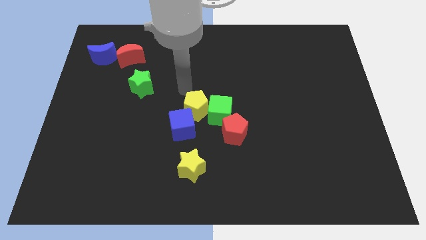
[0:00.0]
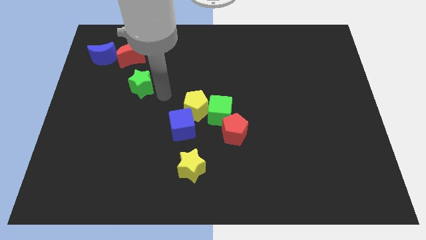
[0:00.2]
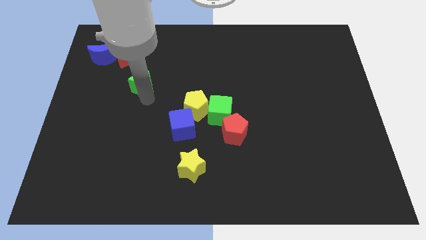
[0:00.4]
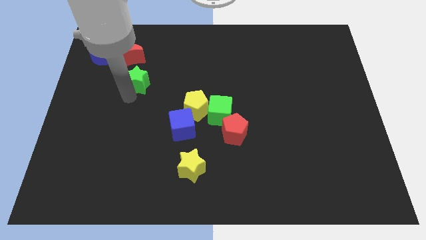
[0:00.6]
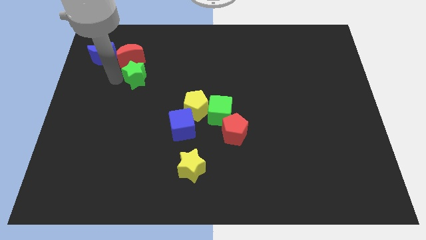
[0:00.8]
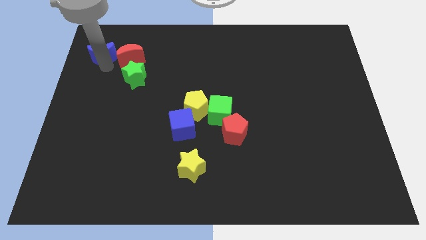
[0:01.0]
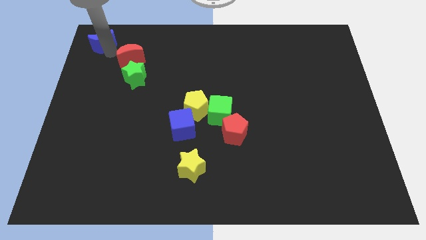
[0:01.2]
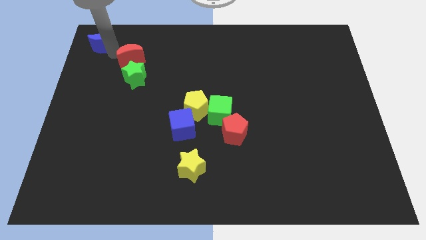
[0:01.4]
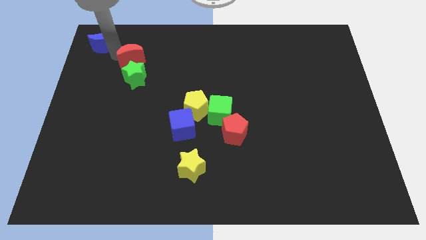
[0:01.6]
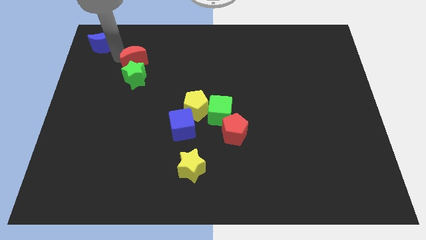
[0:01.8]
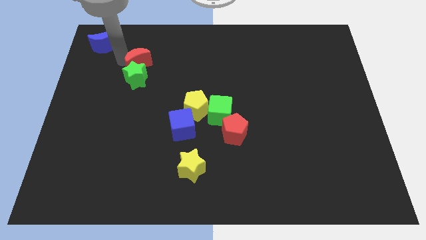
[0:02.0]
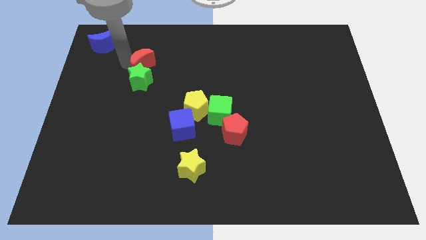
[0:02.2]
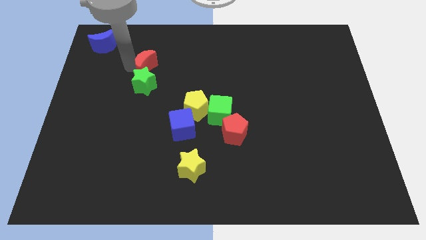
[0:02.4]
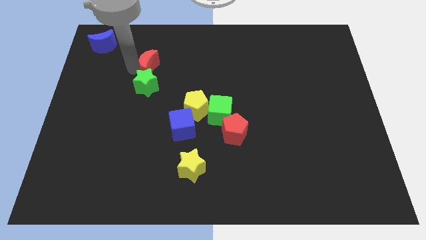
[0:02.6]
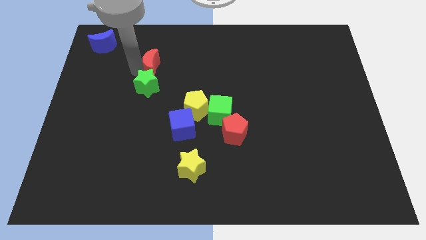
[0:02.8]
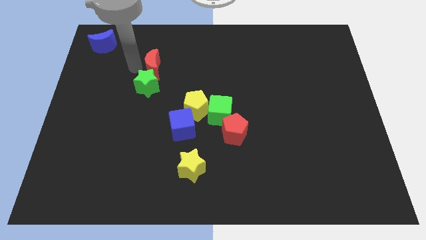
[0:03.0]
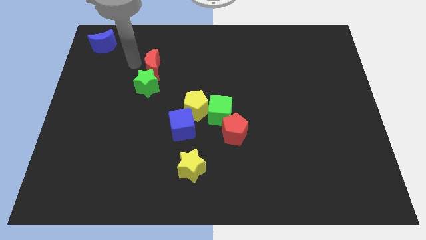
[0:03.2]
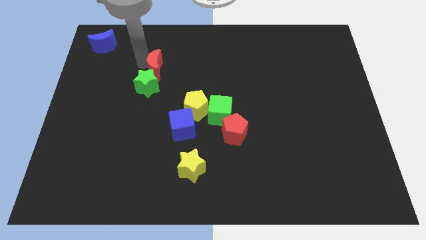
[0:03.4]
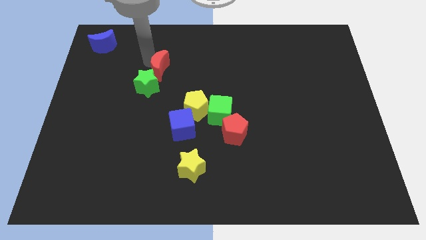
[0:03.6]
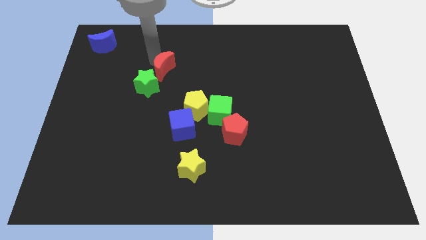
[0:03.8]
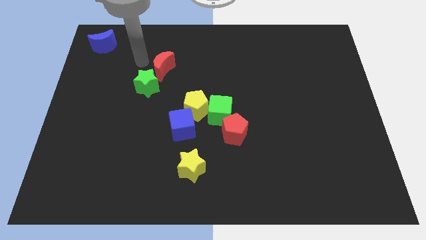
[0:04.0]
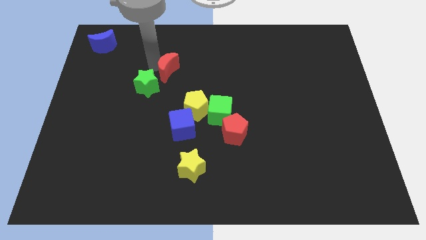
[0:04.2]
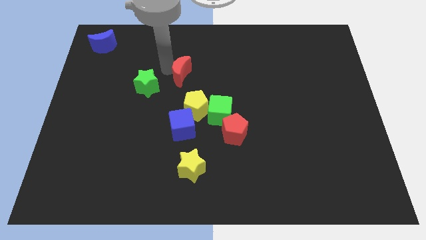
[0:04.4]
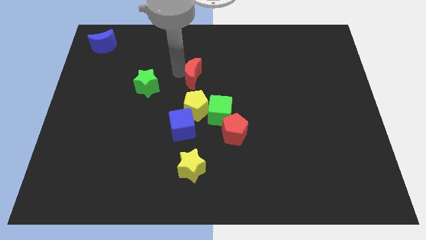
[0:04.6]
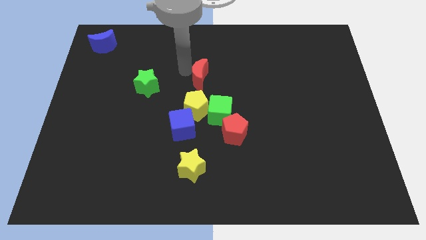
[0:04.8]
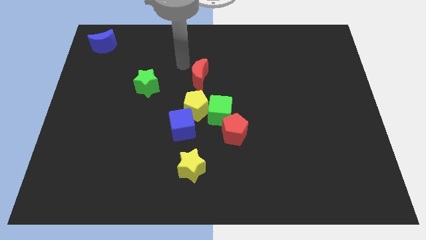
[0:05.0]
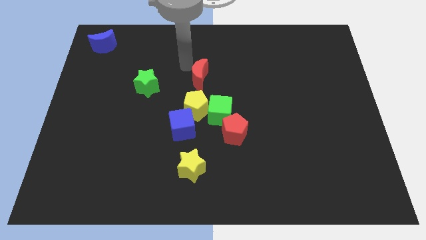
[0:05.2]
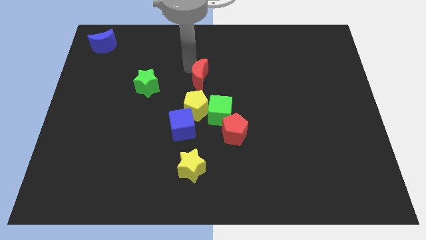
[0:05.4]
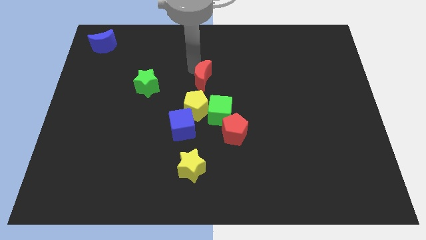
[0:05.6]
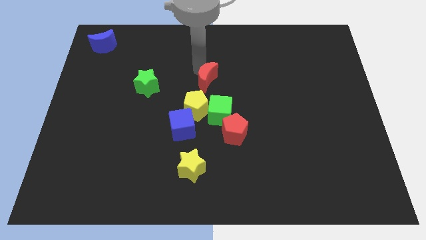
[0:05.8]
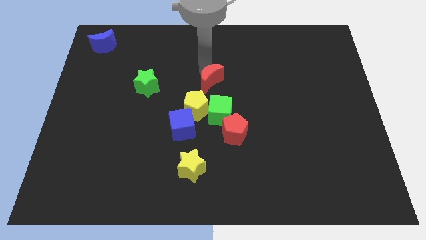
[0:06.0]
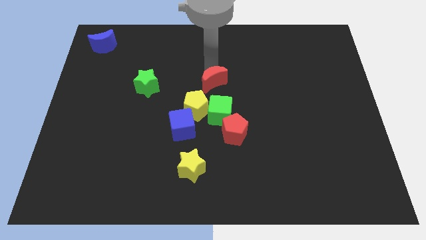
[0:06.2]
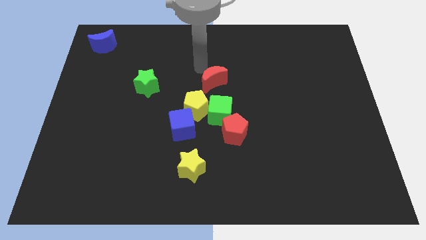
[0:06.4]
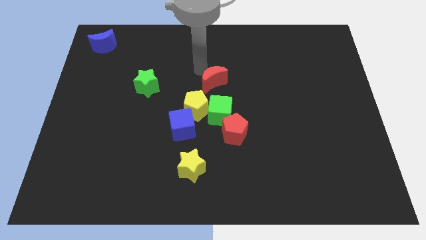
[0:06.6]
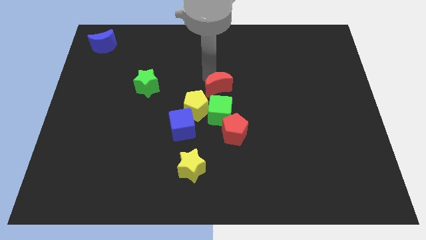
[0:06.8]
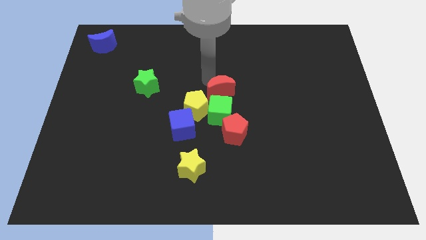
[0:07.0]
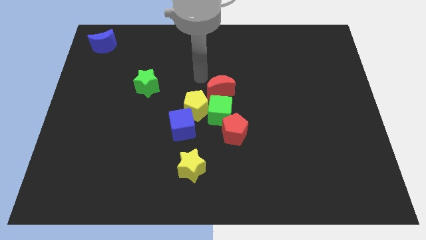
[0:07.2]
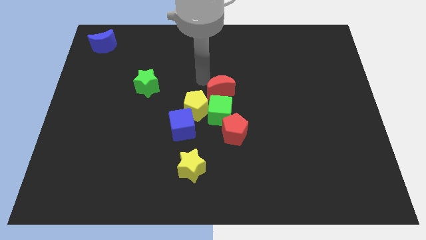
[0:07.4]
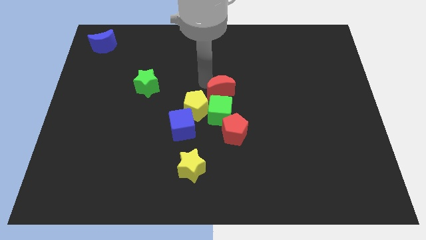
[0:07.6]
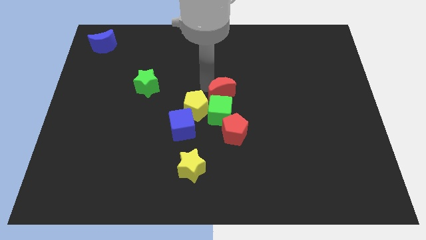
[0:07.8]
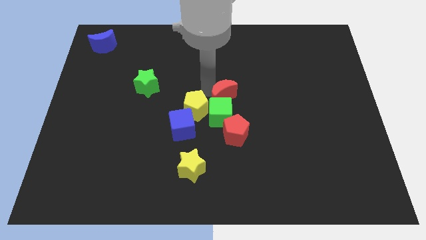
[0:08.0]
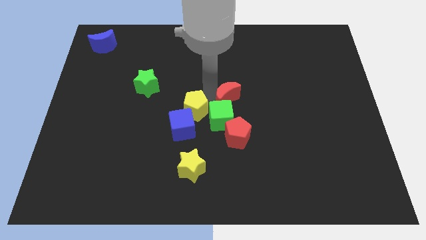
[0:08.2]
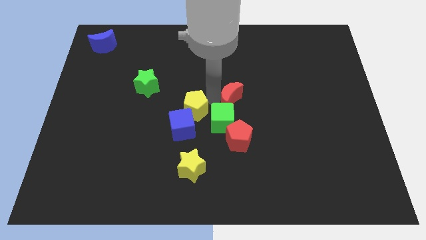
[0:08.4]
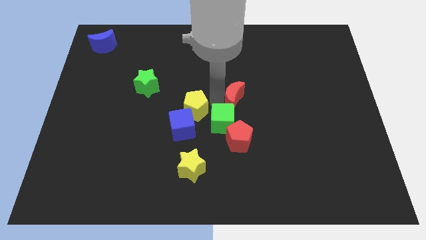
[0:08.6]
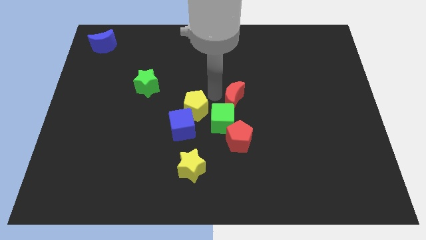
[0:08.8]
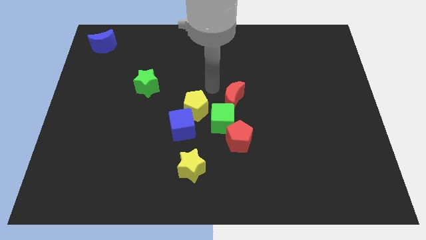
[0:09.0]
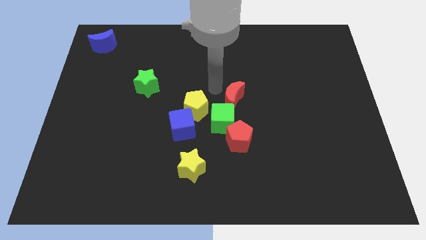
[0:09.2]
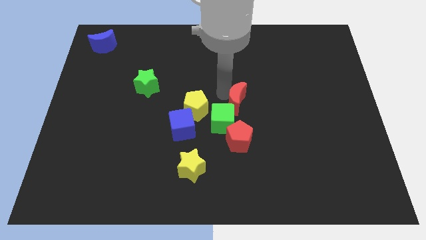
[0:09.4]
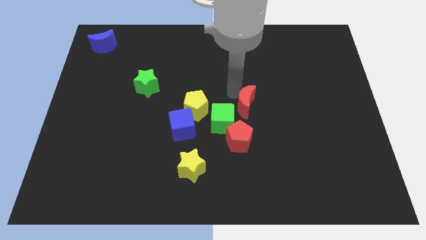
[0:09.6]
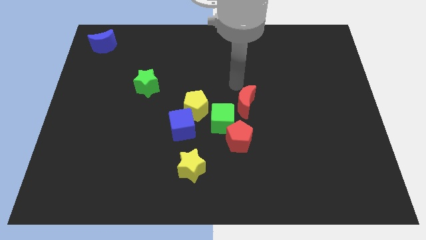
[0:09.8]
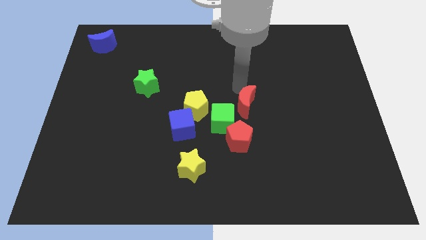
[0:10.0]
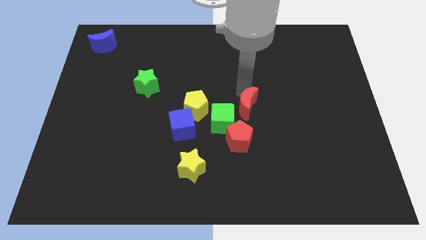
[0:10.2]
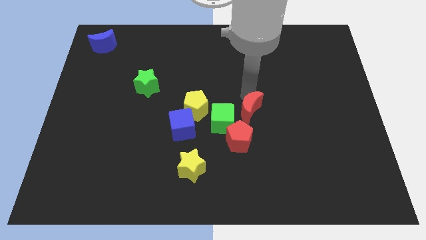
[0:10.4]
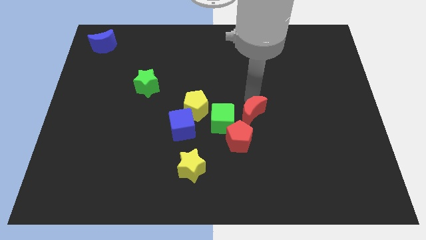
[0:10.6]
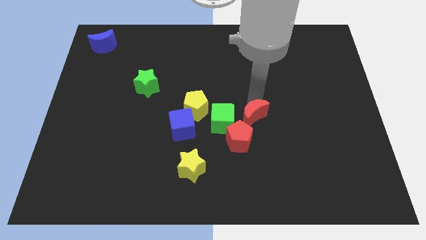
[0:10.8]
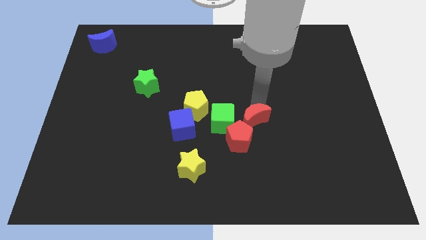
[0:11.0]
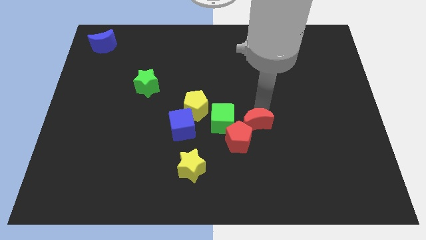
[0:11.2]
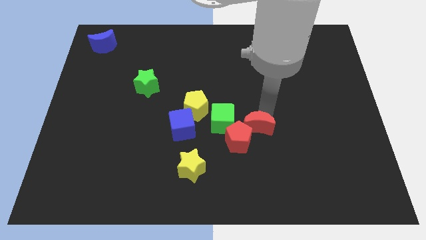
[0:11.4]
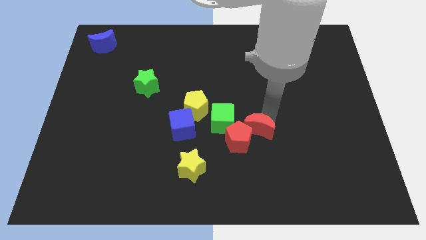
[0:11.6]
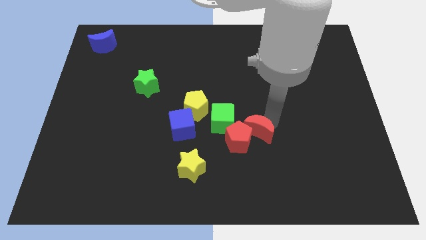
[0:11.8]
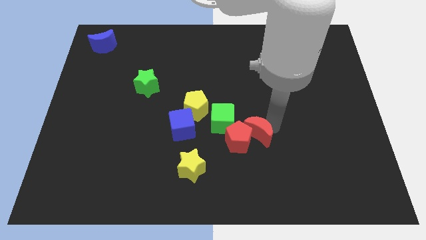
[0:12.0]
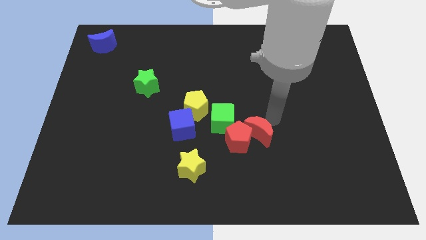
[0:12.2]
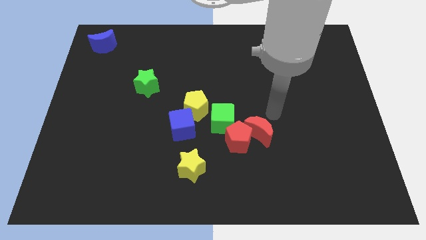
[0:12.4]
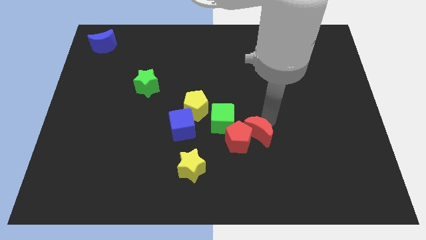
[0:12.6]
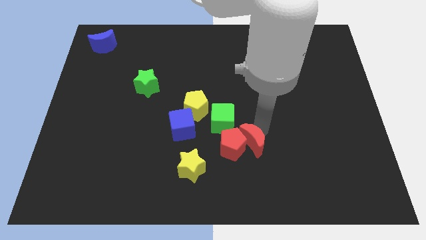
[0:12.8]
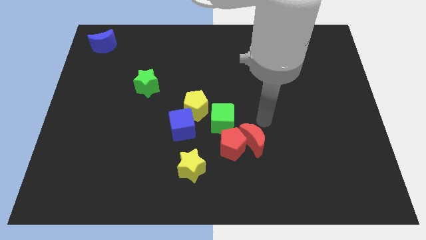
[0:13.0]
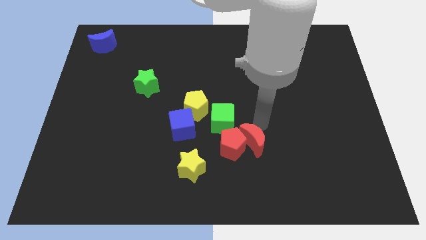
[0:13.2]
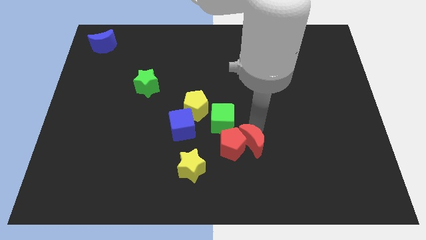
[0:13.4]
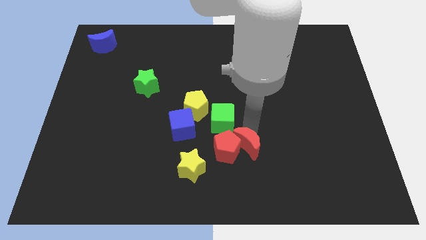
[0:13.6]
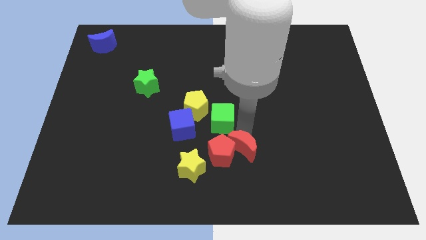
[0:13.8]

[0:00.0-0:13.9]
put the red moon to the right side of the yellow star
